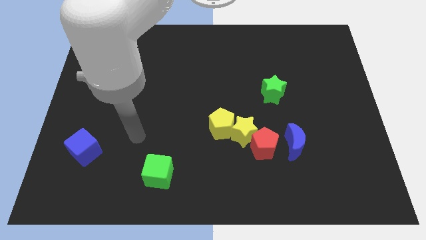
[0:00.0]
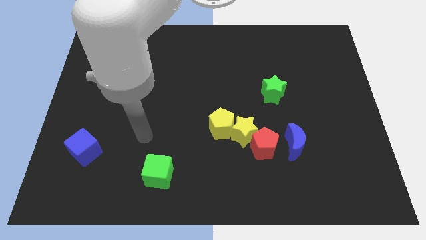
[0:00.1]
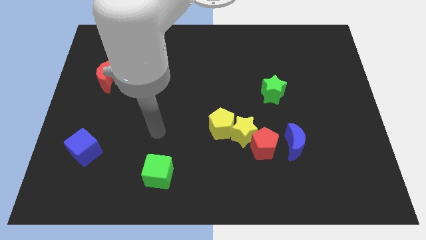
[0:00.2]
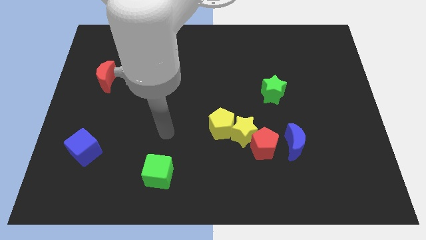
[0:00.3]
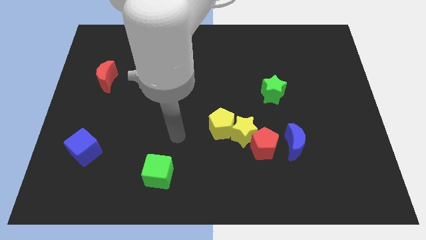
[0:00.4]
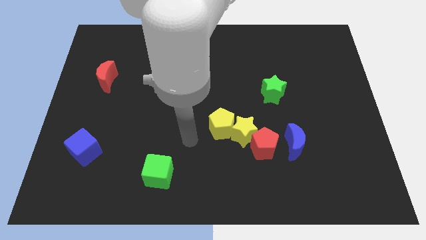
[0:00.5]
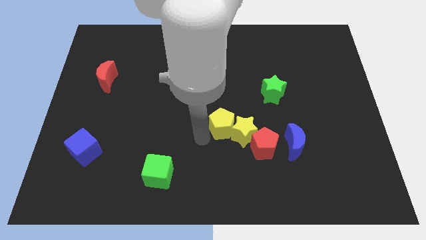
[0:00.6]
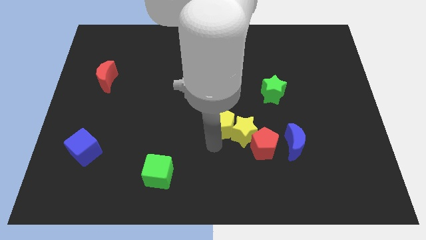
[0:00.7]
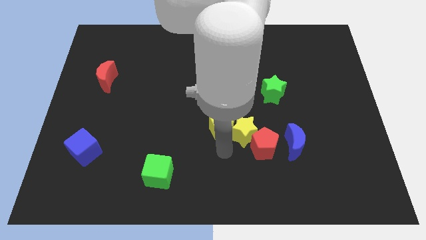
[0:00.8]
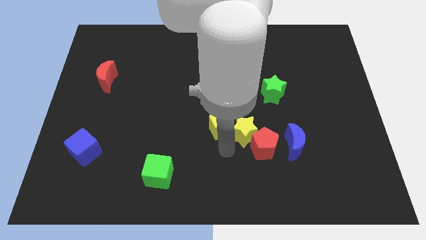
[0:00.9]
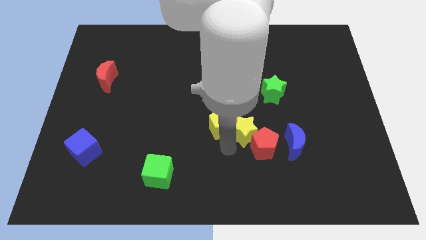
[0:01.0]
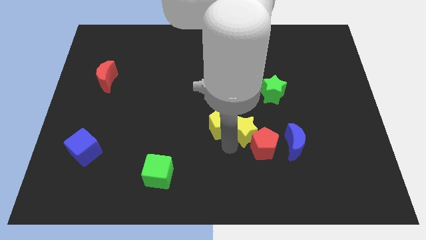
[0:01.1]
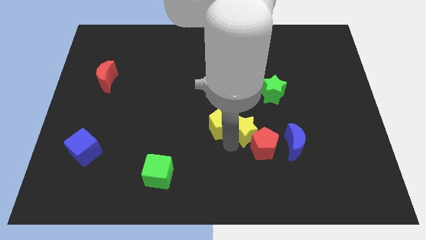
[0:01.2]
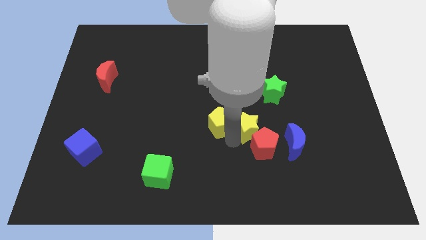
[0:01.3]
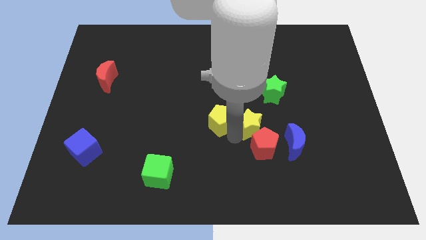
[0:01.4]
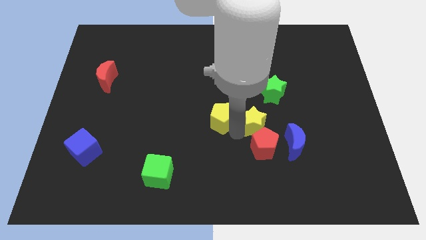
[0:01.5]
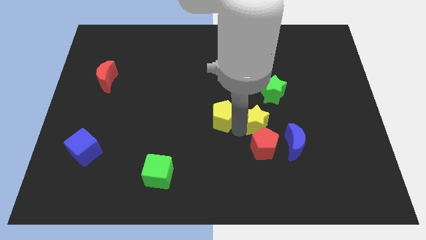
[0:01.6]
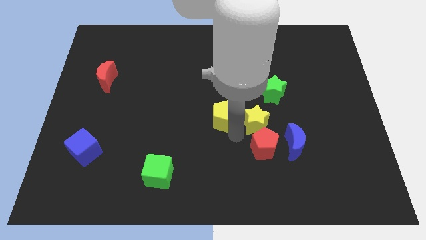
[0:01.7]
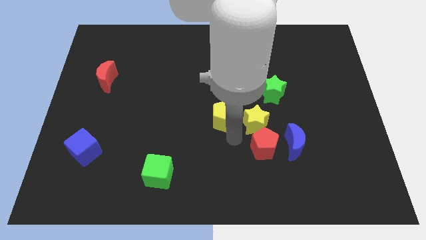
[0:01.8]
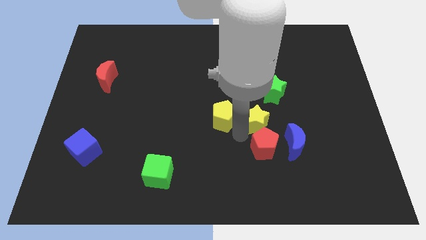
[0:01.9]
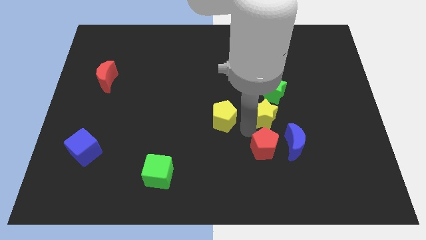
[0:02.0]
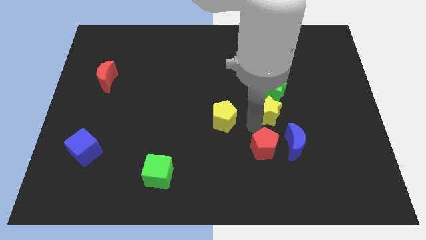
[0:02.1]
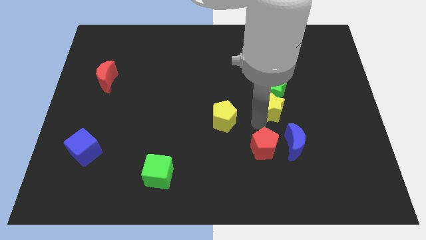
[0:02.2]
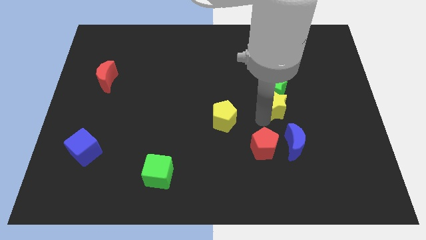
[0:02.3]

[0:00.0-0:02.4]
pull the yellow star apart from the red pentagon and yellow pentagon

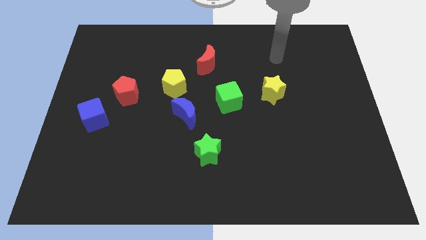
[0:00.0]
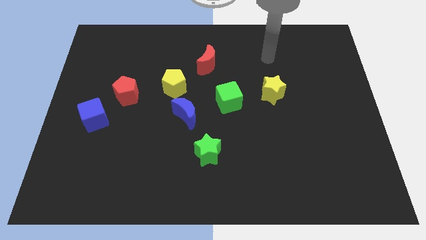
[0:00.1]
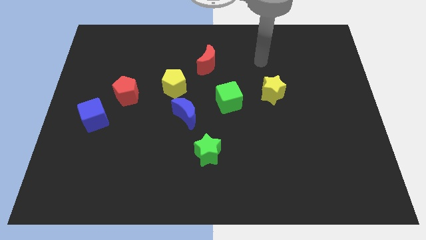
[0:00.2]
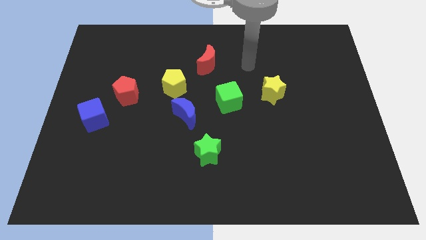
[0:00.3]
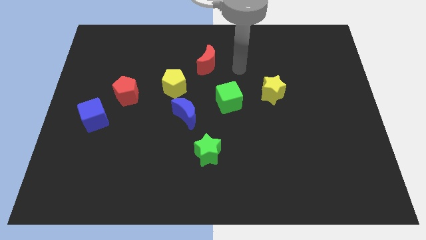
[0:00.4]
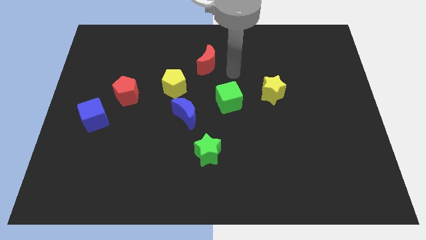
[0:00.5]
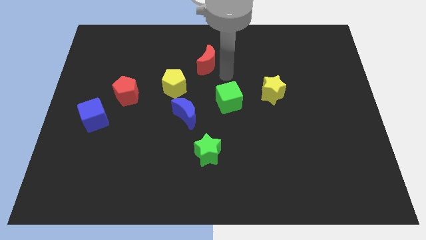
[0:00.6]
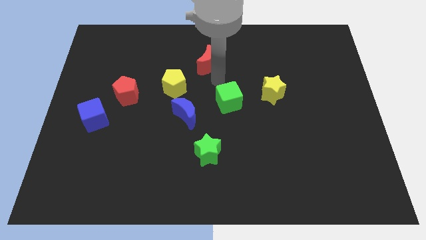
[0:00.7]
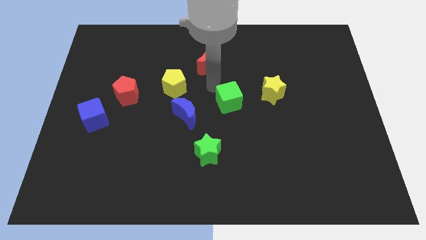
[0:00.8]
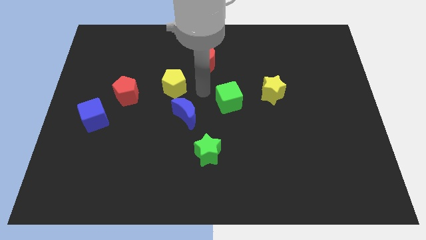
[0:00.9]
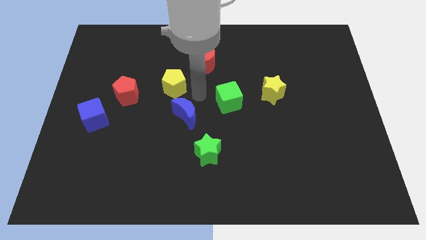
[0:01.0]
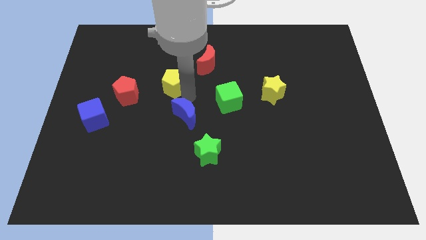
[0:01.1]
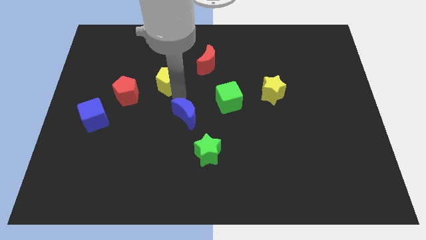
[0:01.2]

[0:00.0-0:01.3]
pull the blue moon apart from the yellow pentagon

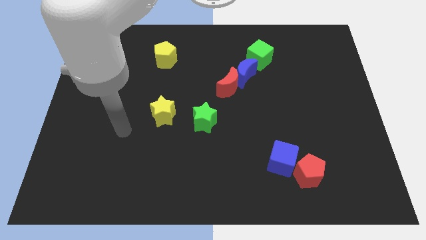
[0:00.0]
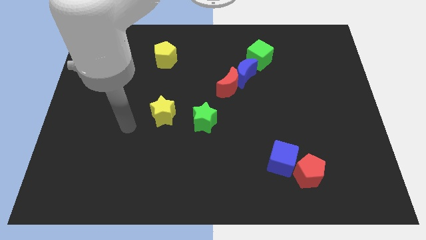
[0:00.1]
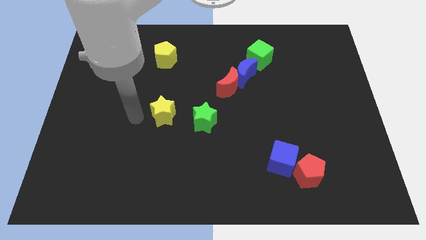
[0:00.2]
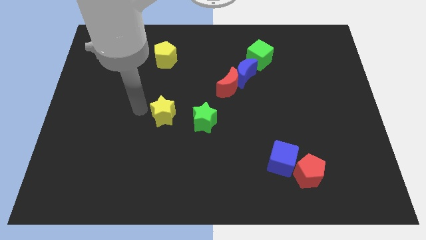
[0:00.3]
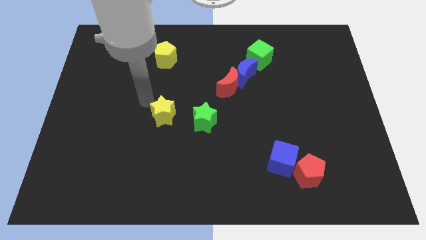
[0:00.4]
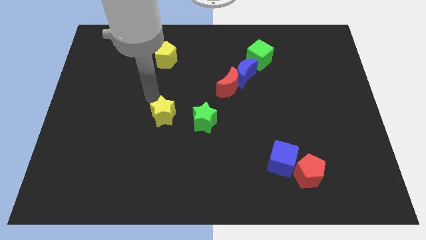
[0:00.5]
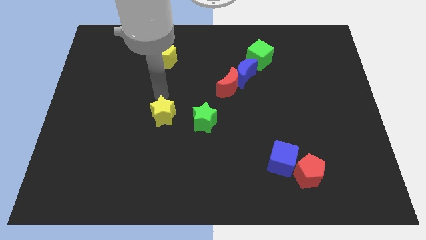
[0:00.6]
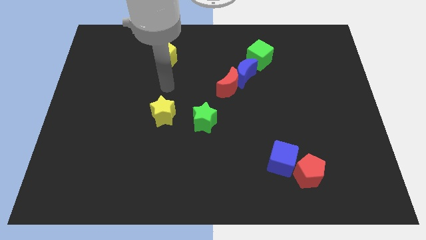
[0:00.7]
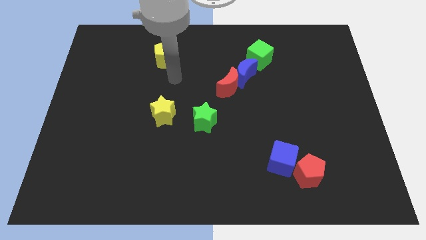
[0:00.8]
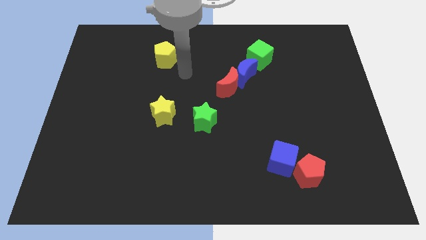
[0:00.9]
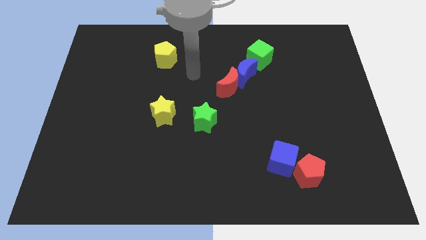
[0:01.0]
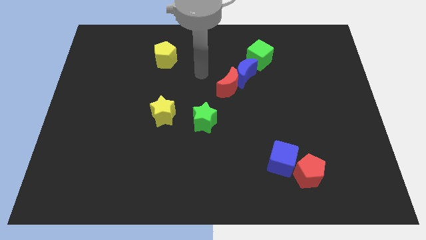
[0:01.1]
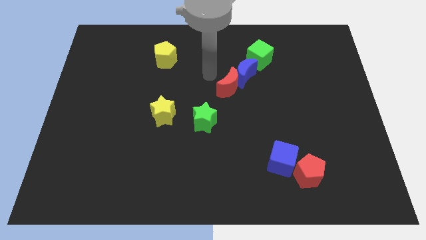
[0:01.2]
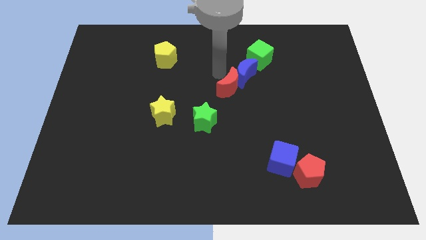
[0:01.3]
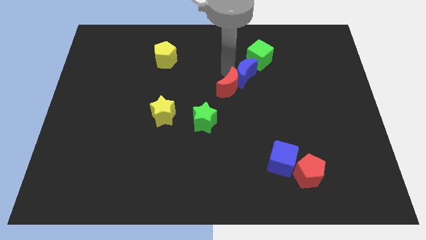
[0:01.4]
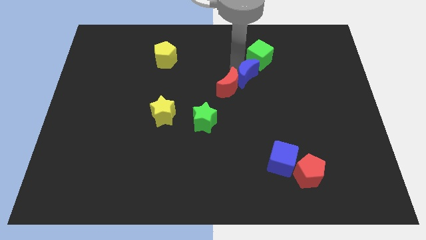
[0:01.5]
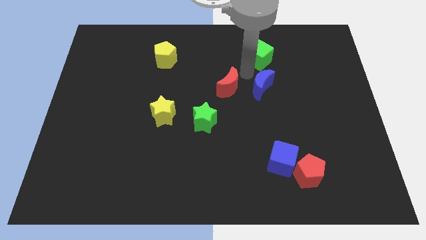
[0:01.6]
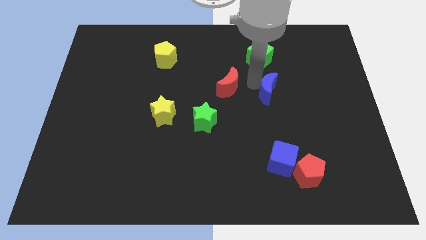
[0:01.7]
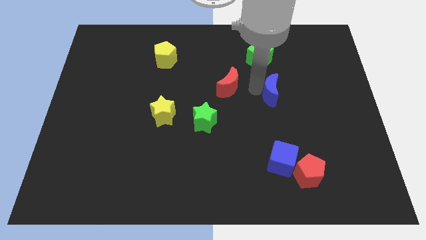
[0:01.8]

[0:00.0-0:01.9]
pull the red moon apart from the blue moon

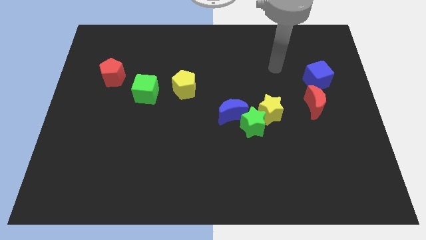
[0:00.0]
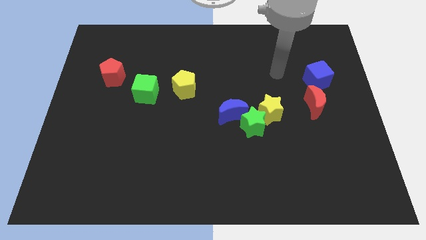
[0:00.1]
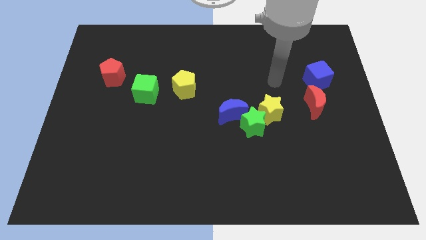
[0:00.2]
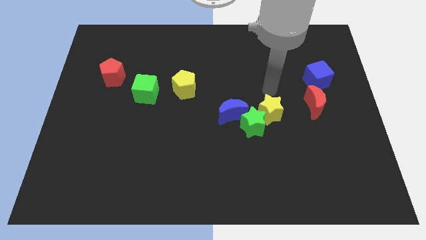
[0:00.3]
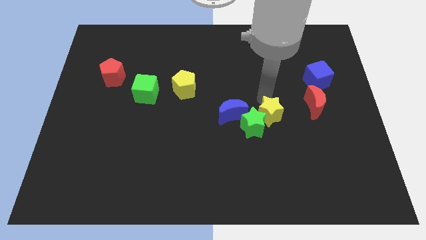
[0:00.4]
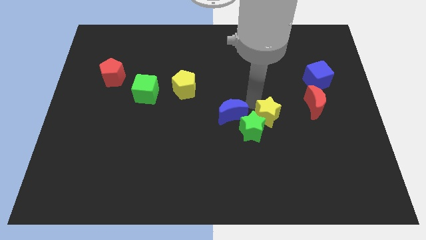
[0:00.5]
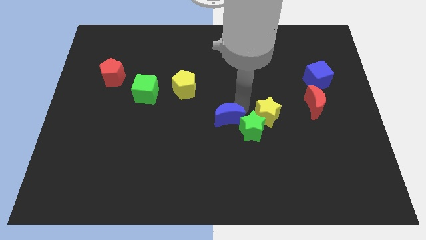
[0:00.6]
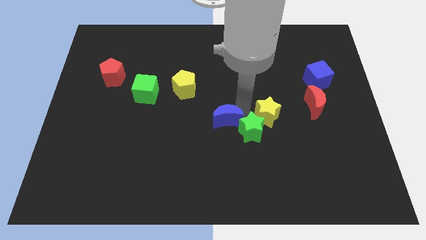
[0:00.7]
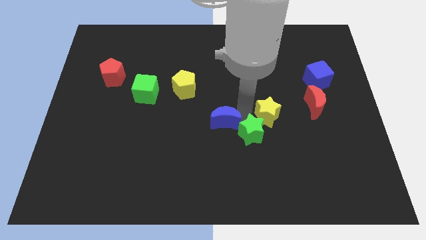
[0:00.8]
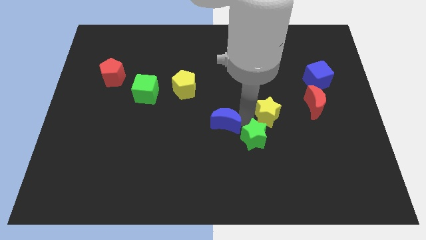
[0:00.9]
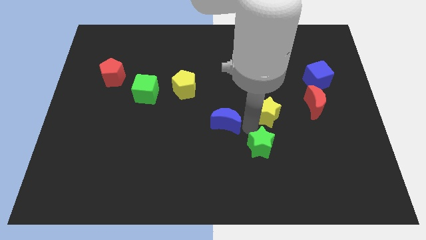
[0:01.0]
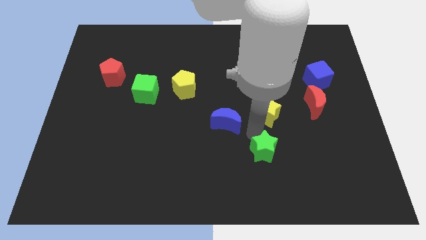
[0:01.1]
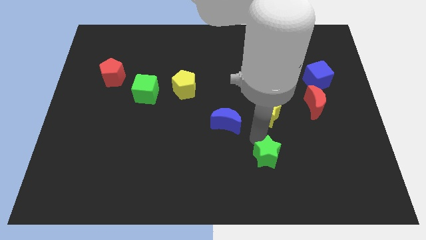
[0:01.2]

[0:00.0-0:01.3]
pull the green star apart from the yellow star and blue moon

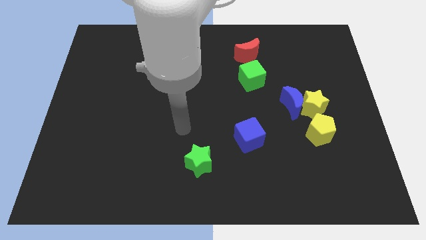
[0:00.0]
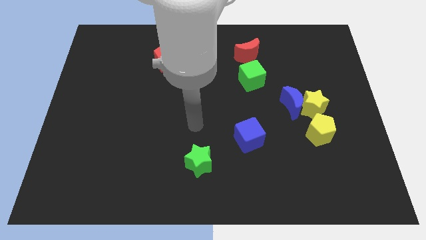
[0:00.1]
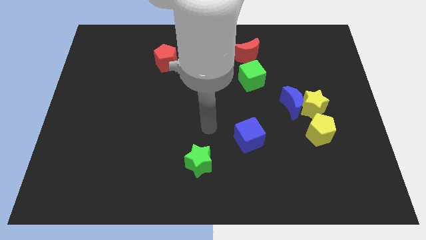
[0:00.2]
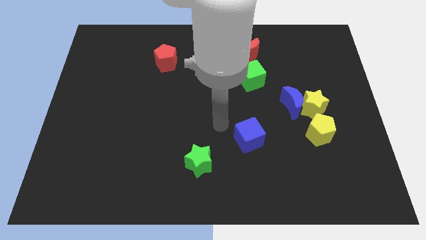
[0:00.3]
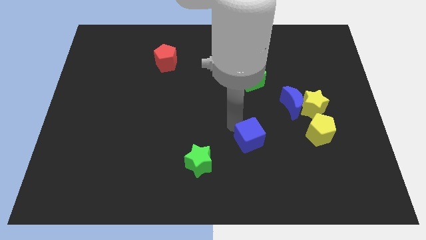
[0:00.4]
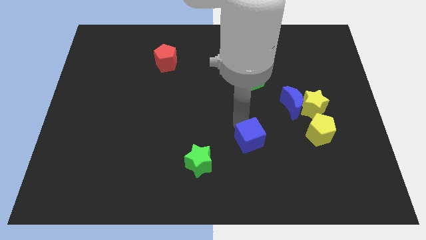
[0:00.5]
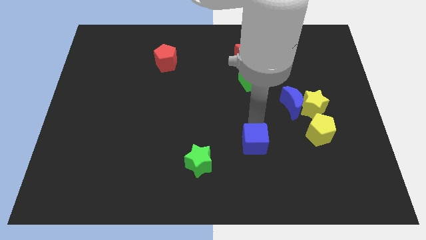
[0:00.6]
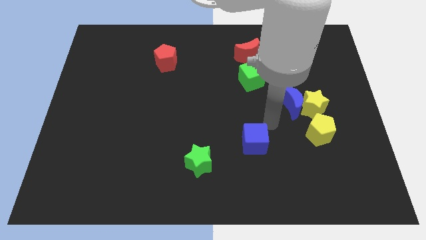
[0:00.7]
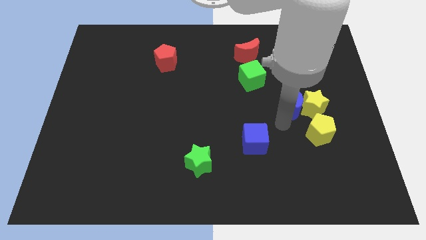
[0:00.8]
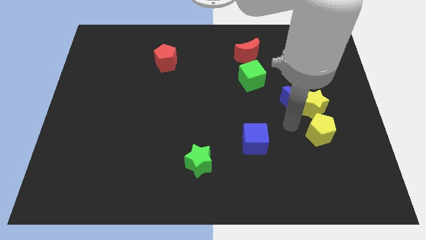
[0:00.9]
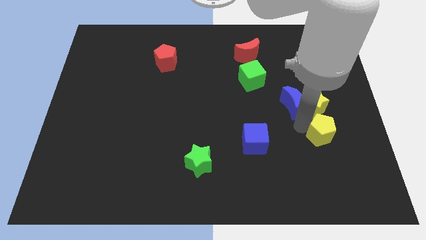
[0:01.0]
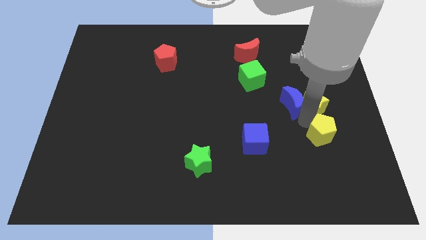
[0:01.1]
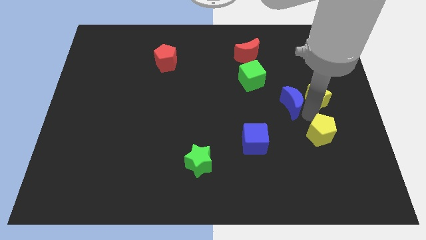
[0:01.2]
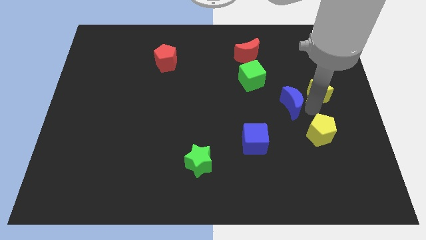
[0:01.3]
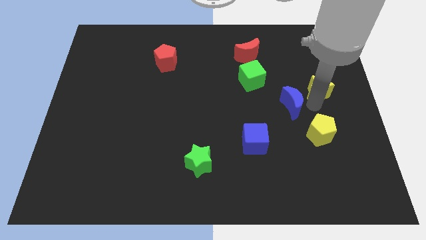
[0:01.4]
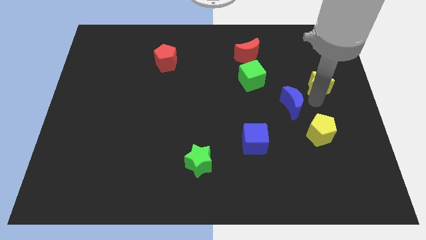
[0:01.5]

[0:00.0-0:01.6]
move the yellow star away from the blue moon and yellow pentagon

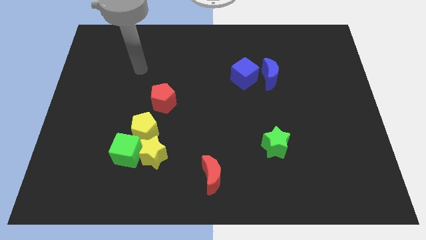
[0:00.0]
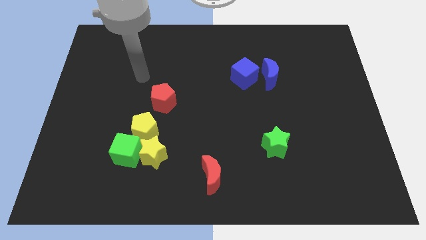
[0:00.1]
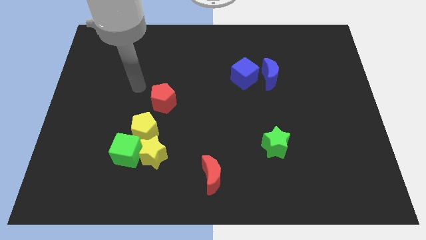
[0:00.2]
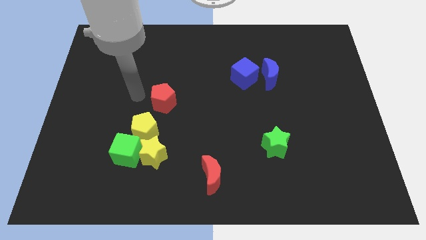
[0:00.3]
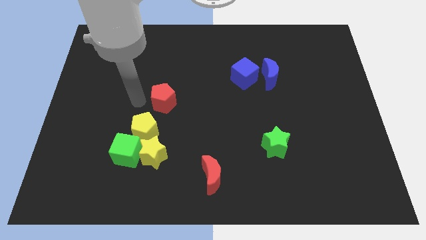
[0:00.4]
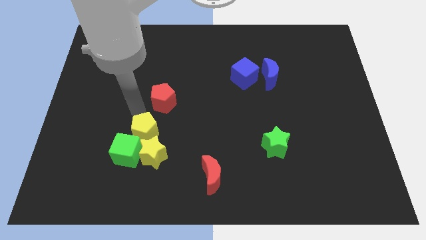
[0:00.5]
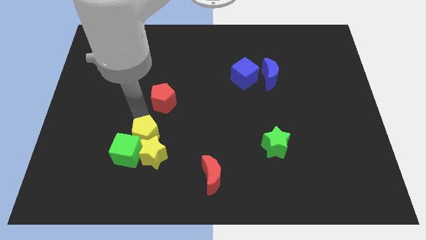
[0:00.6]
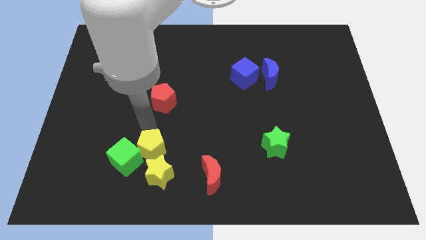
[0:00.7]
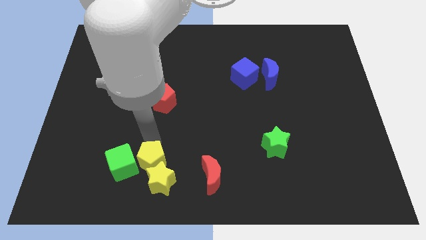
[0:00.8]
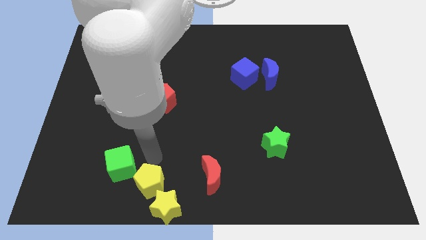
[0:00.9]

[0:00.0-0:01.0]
separate the green cube from the yellow star and yellow pentagon
